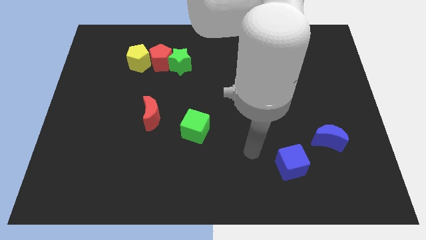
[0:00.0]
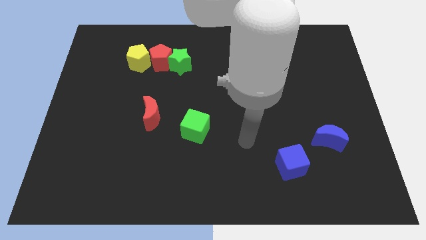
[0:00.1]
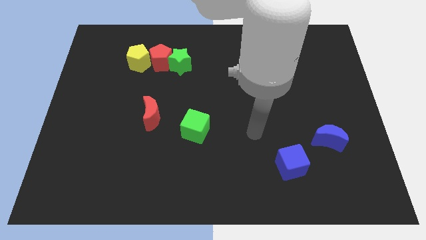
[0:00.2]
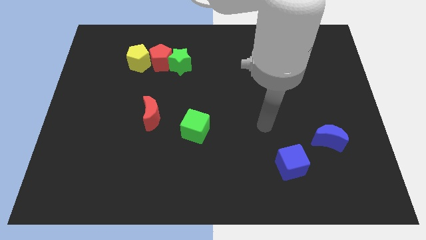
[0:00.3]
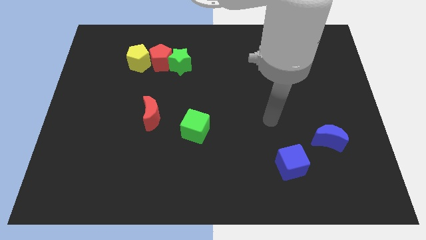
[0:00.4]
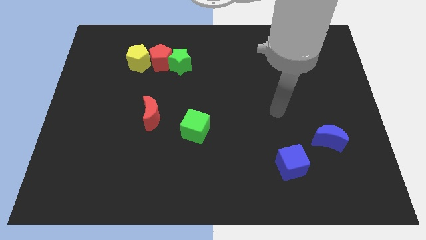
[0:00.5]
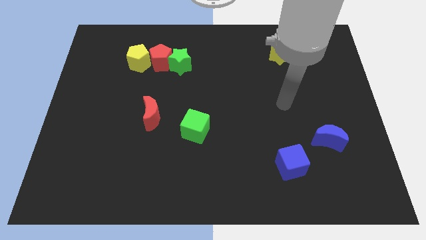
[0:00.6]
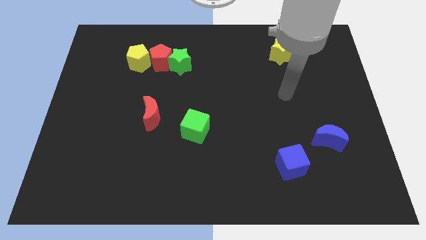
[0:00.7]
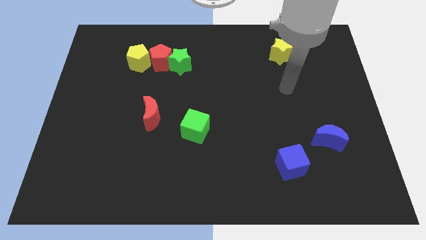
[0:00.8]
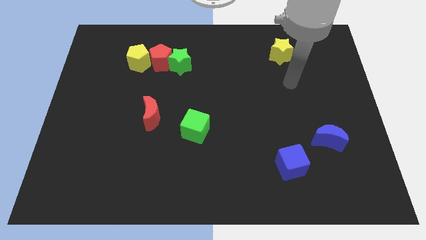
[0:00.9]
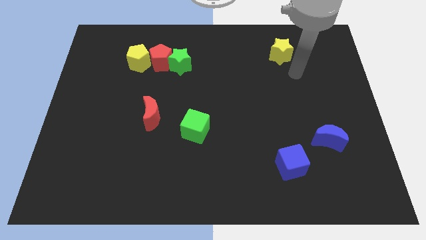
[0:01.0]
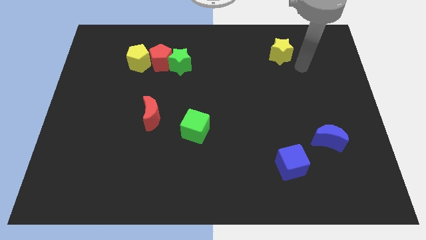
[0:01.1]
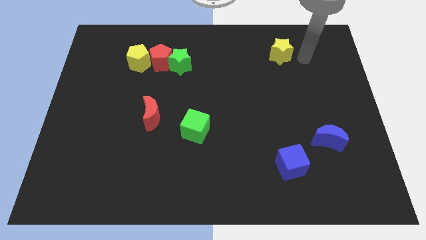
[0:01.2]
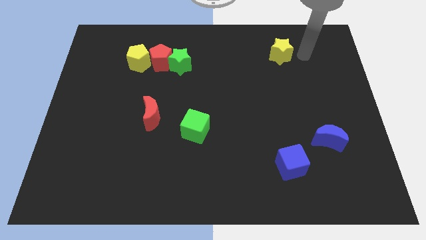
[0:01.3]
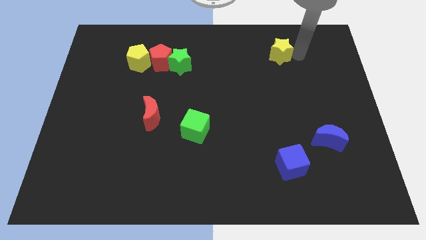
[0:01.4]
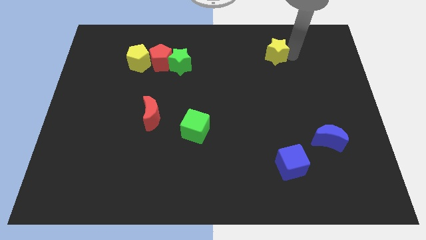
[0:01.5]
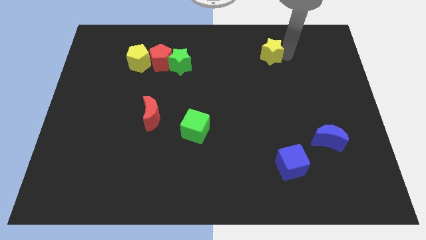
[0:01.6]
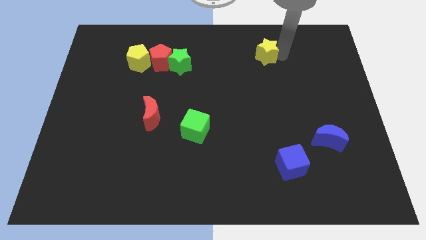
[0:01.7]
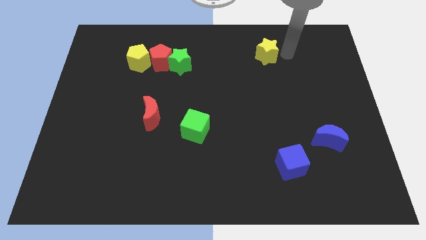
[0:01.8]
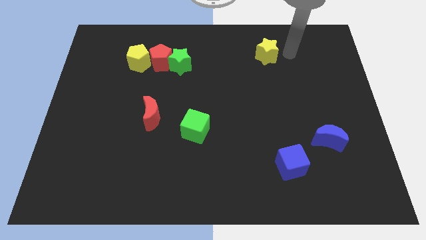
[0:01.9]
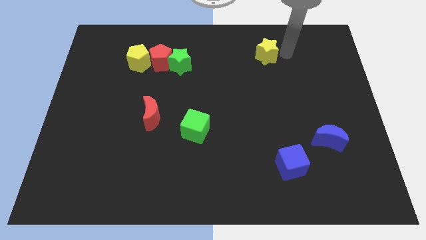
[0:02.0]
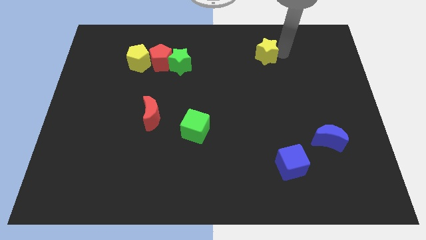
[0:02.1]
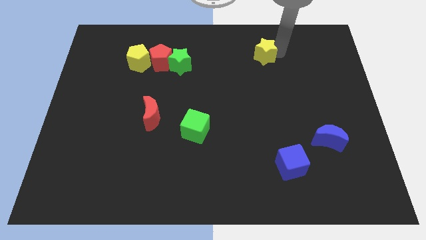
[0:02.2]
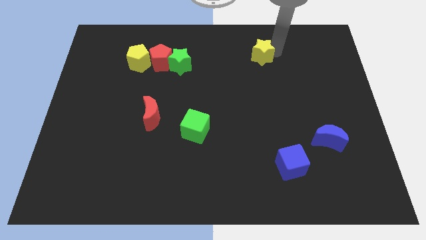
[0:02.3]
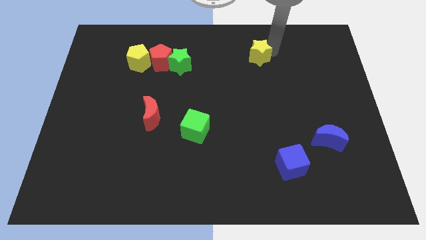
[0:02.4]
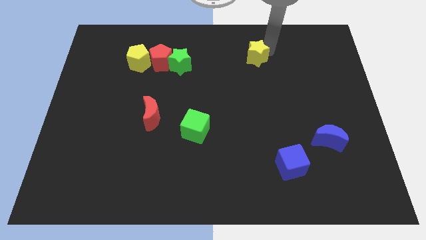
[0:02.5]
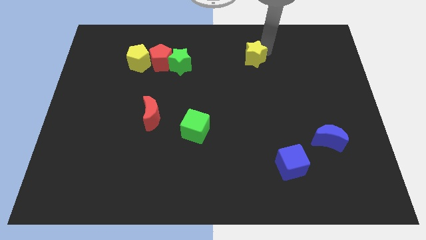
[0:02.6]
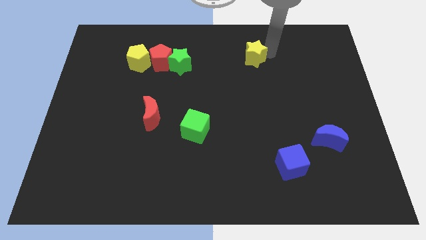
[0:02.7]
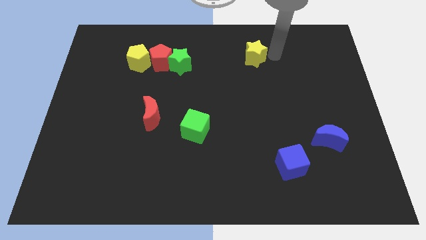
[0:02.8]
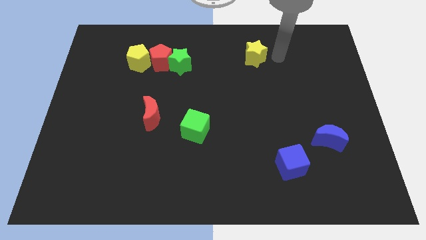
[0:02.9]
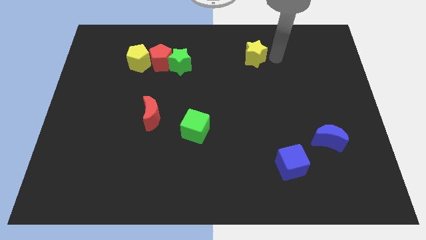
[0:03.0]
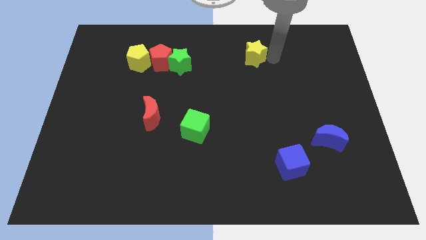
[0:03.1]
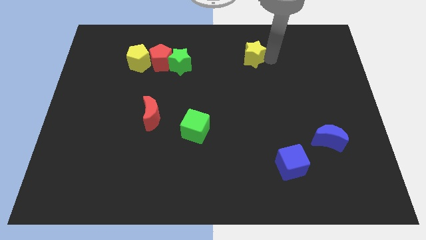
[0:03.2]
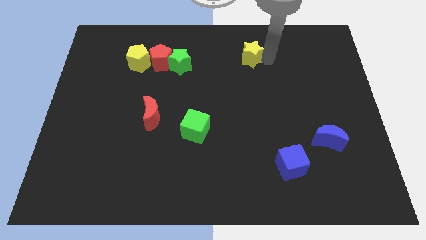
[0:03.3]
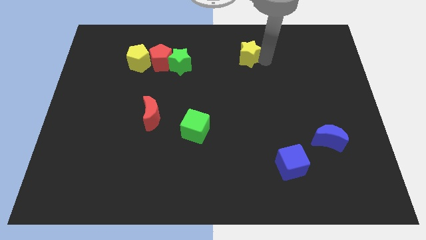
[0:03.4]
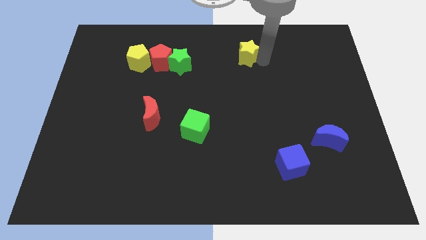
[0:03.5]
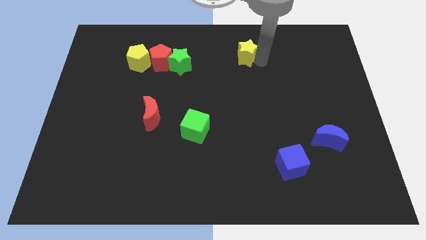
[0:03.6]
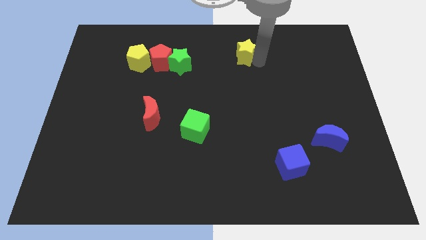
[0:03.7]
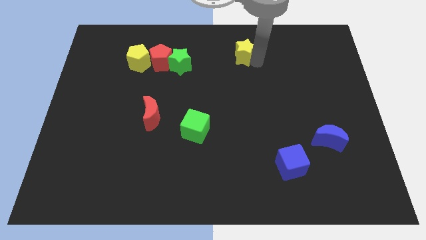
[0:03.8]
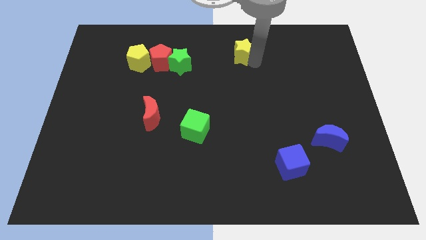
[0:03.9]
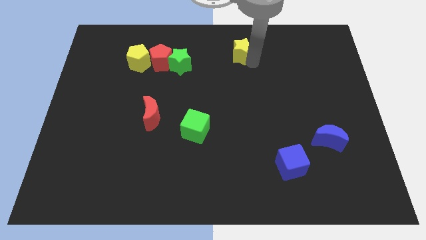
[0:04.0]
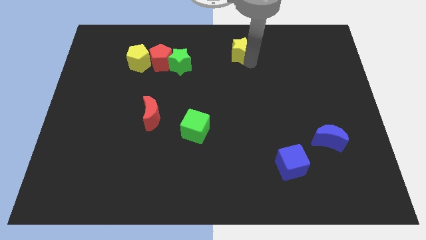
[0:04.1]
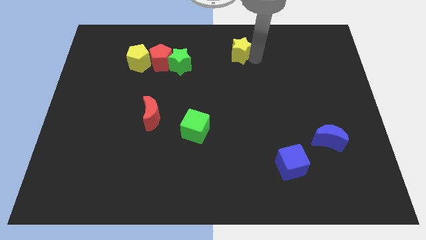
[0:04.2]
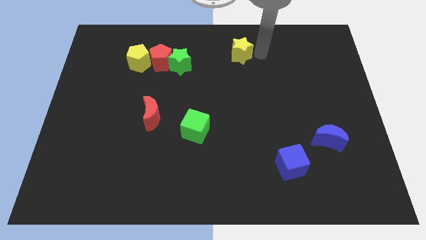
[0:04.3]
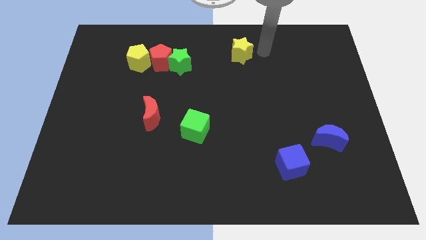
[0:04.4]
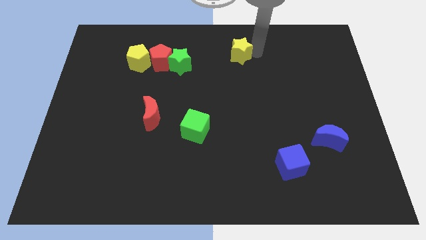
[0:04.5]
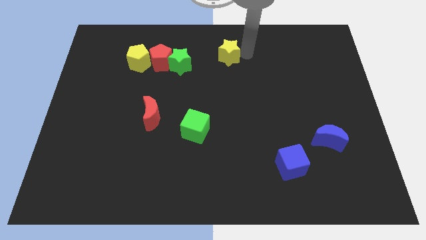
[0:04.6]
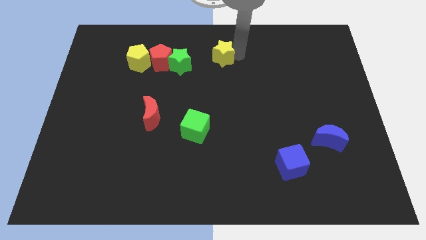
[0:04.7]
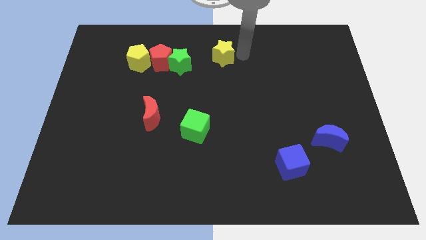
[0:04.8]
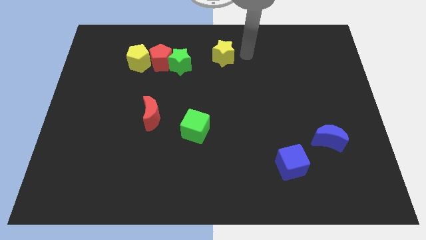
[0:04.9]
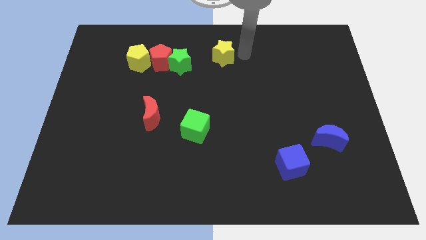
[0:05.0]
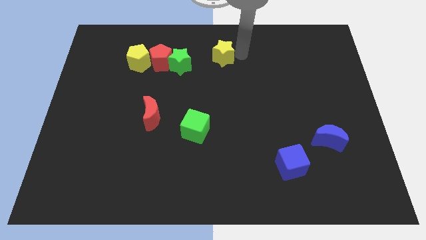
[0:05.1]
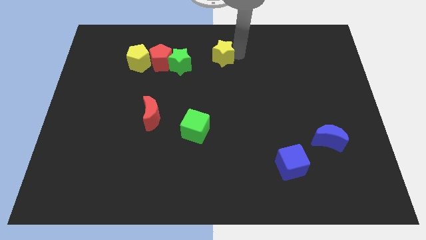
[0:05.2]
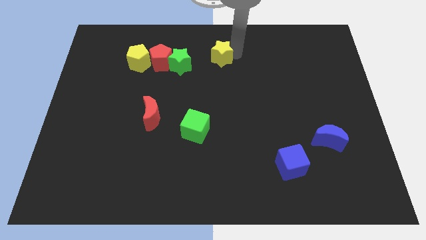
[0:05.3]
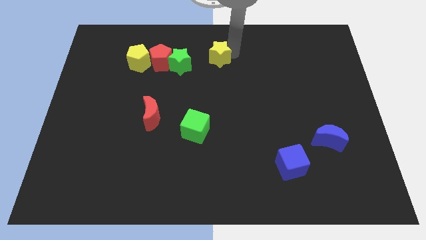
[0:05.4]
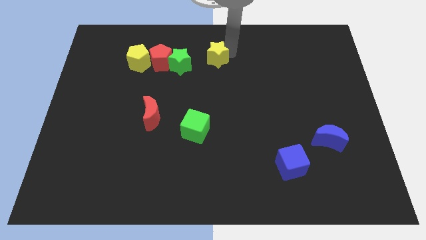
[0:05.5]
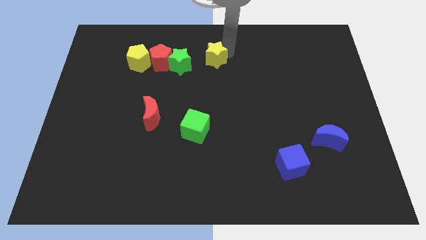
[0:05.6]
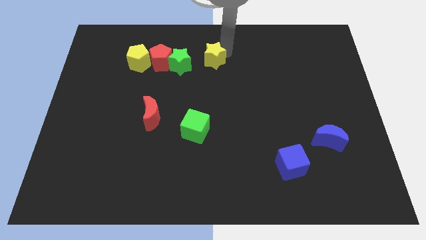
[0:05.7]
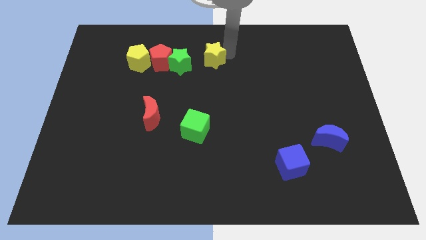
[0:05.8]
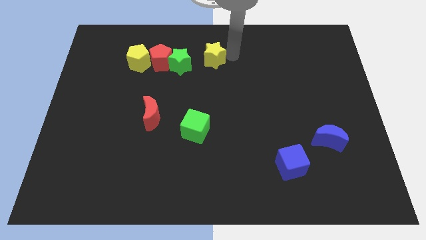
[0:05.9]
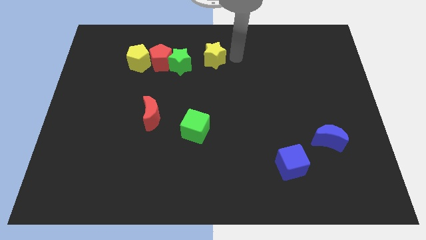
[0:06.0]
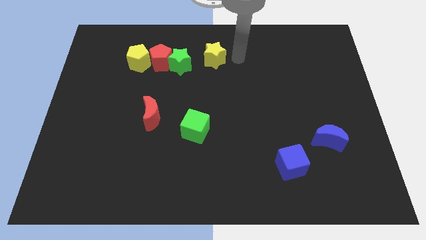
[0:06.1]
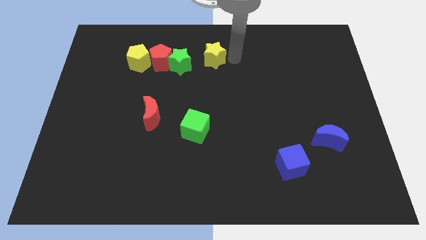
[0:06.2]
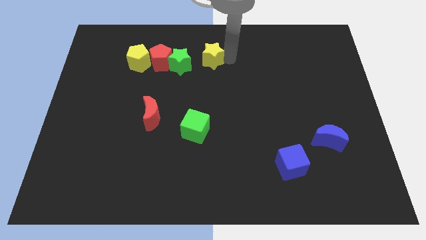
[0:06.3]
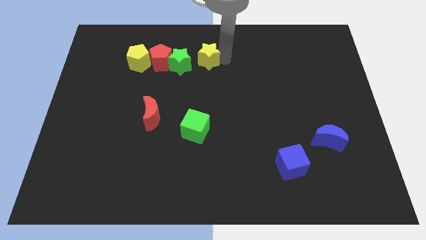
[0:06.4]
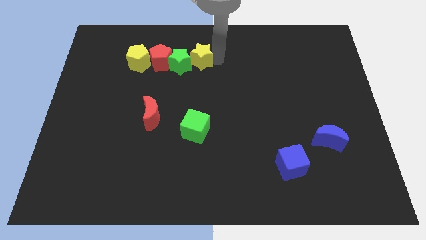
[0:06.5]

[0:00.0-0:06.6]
move the yellow star right of the yellow pentagon

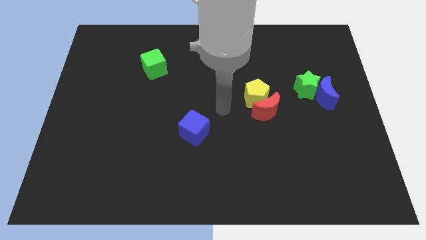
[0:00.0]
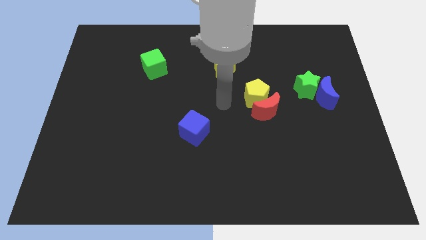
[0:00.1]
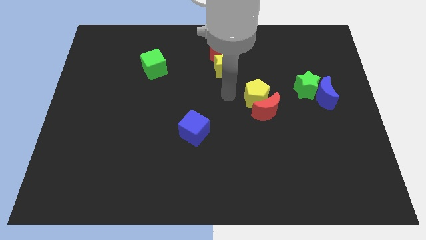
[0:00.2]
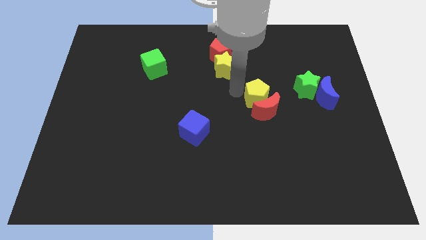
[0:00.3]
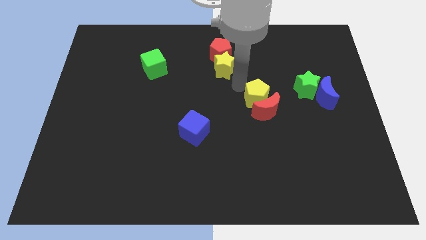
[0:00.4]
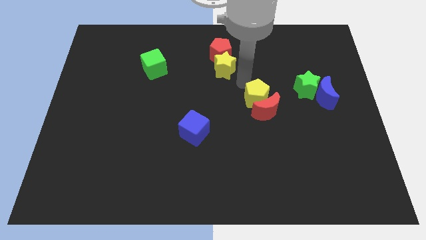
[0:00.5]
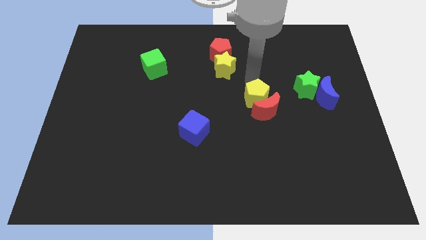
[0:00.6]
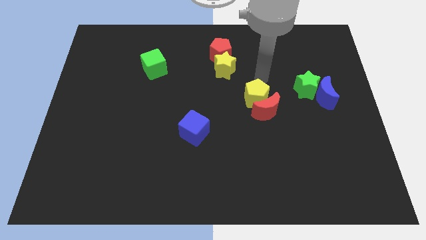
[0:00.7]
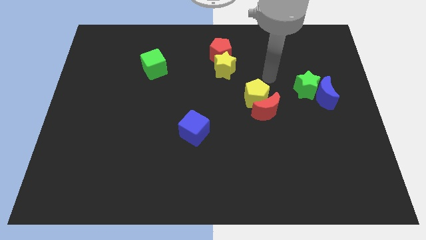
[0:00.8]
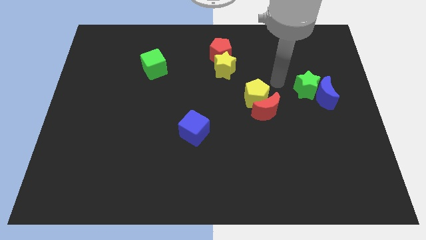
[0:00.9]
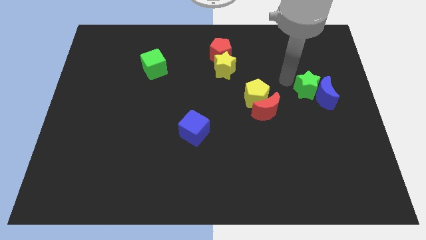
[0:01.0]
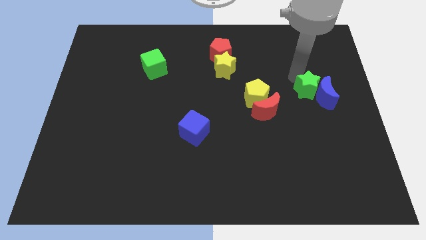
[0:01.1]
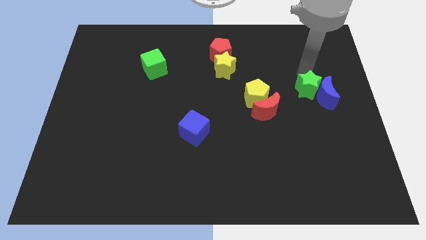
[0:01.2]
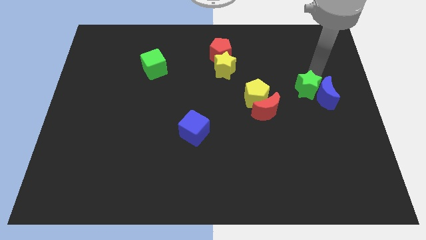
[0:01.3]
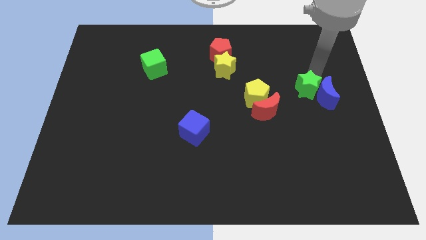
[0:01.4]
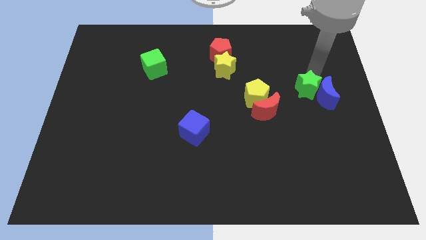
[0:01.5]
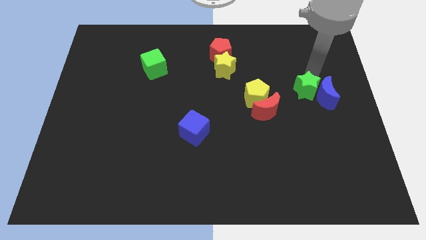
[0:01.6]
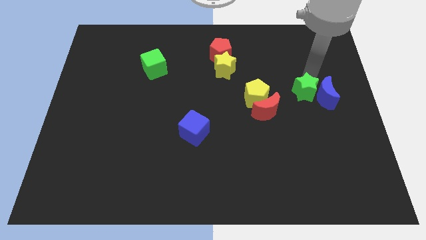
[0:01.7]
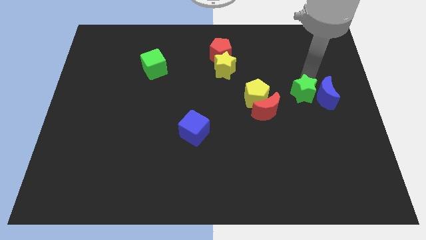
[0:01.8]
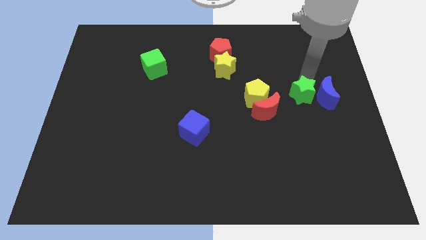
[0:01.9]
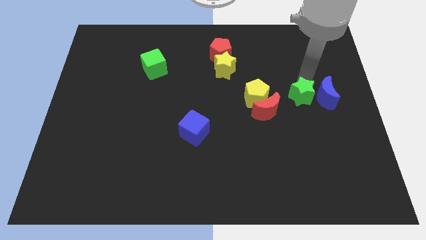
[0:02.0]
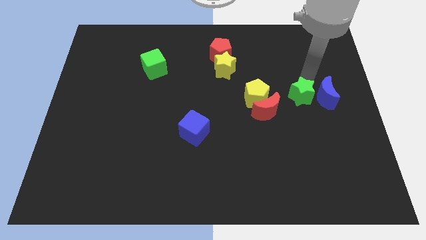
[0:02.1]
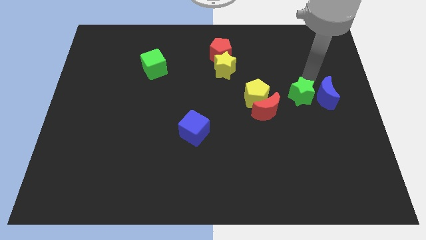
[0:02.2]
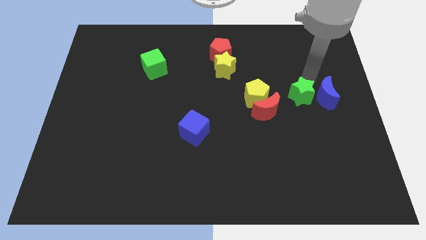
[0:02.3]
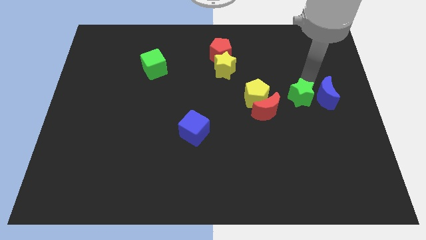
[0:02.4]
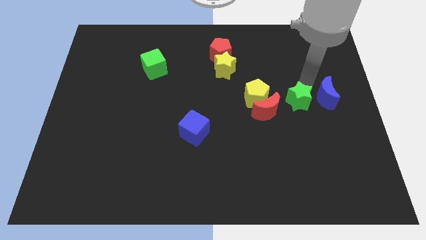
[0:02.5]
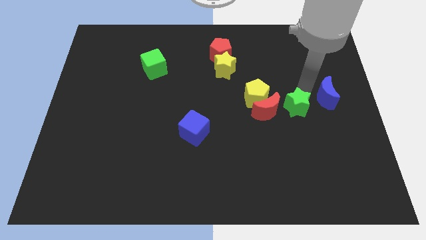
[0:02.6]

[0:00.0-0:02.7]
move the green star to the bottom right side of the yellow pentagon
